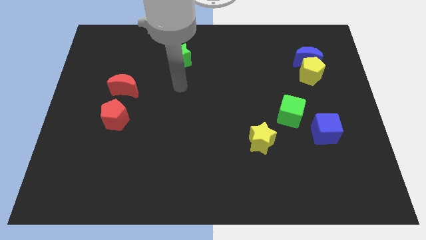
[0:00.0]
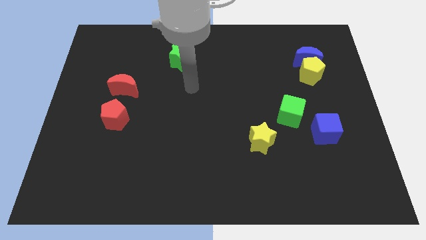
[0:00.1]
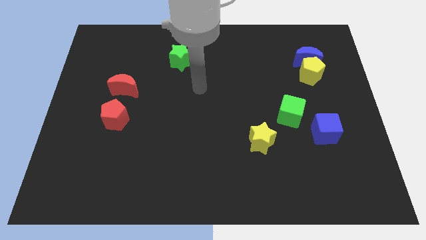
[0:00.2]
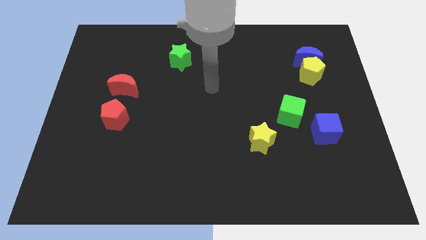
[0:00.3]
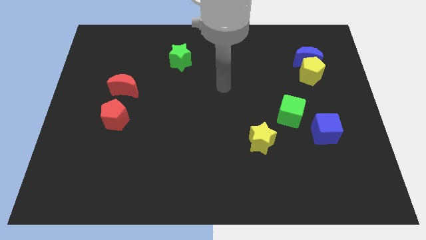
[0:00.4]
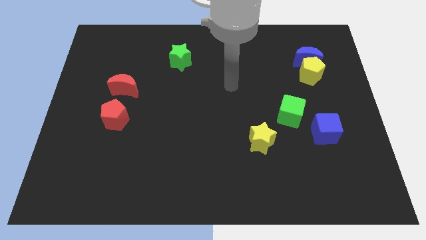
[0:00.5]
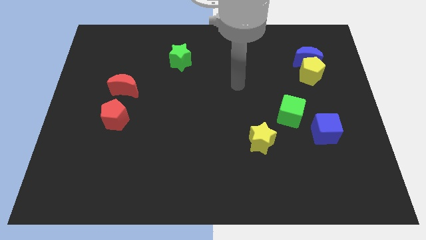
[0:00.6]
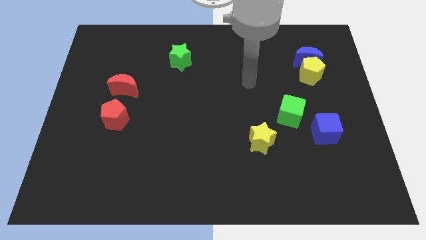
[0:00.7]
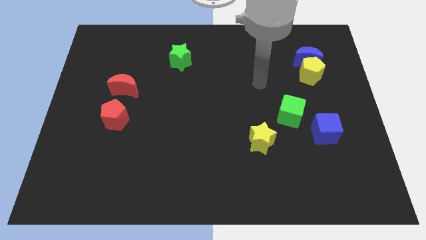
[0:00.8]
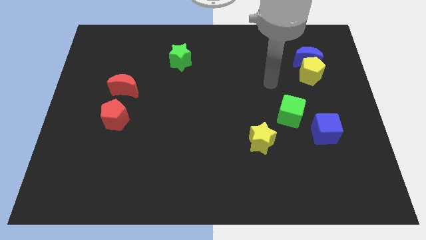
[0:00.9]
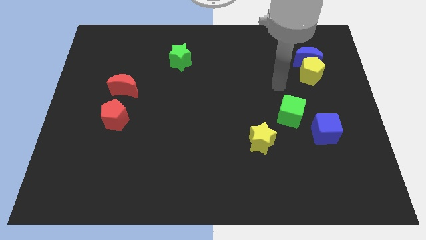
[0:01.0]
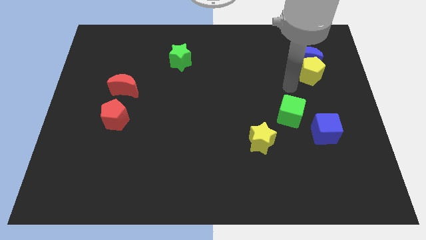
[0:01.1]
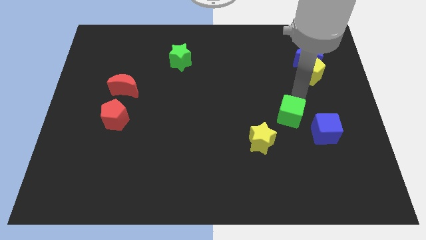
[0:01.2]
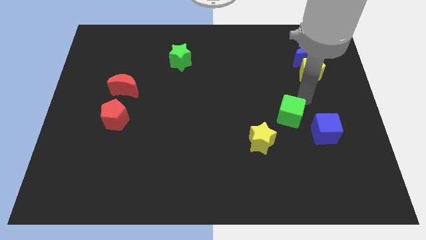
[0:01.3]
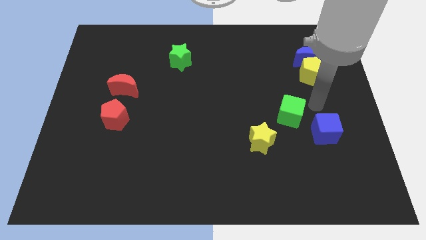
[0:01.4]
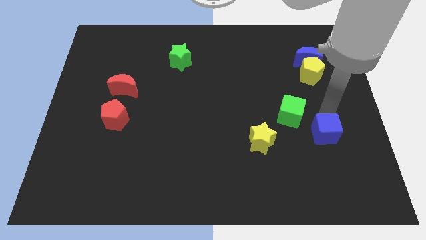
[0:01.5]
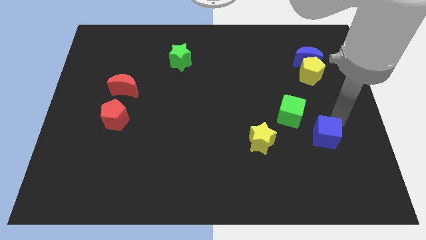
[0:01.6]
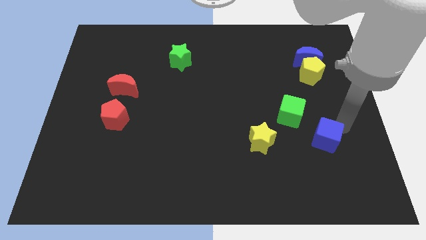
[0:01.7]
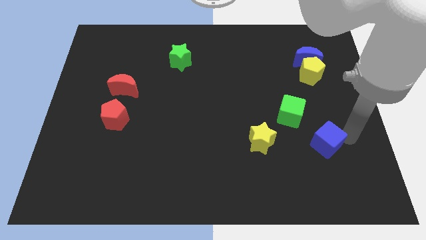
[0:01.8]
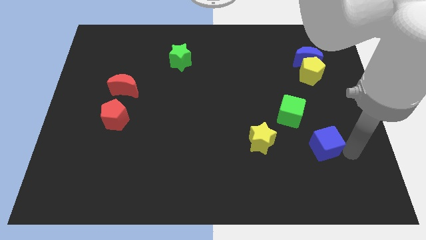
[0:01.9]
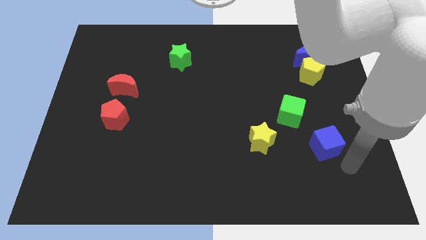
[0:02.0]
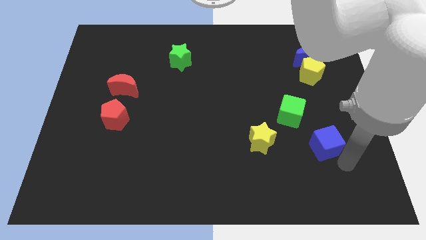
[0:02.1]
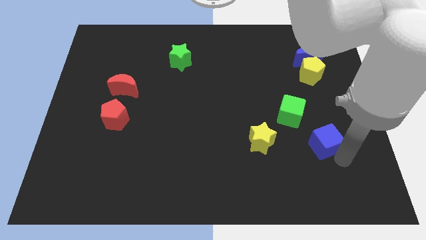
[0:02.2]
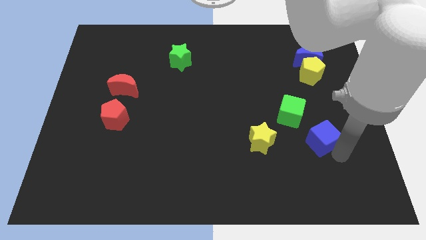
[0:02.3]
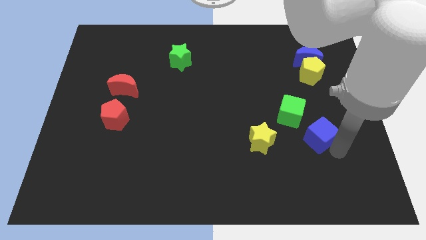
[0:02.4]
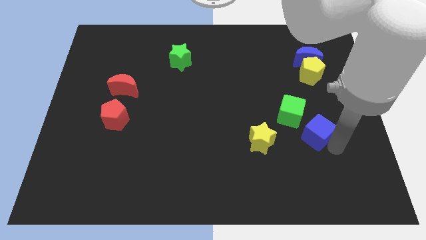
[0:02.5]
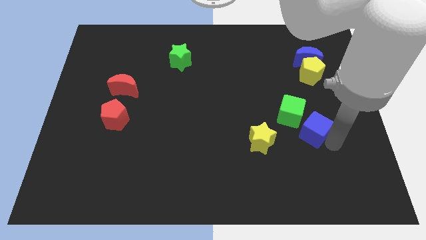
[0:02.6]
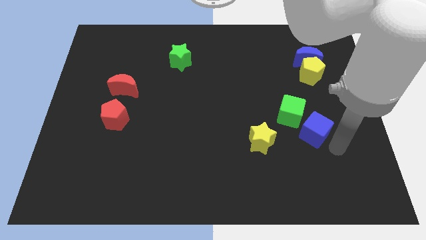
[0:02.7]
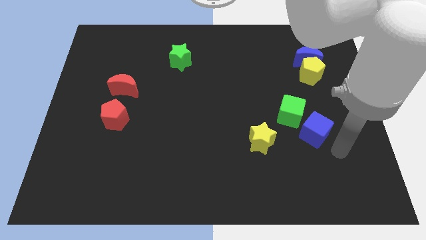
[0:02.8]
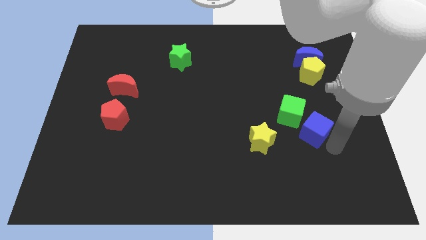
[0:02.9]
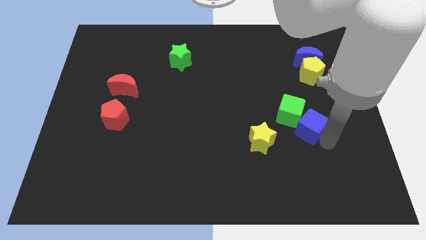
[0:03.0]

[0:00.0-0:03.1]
push the blue cube to the green cube

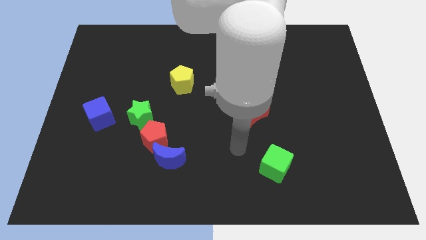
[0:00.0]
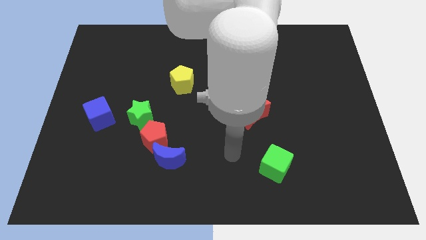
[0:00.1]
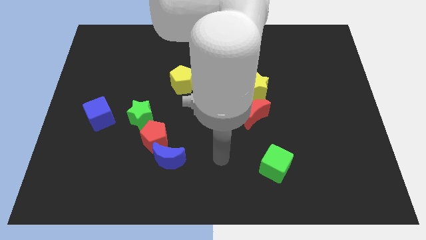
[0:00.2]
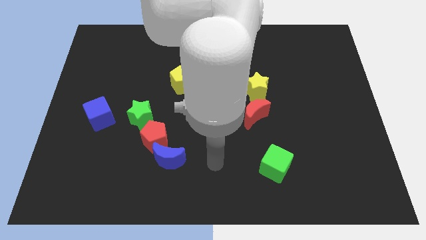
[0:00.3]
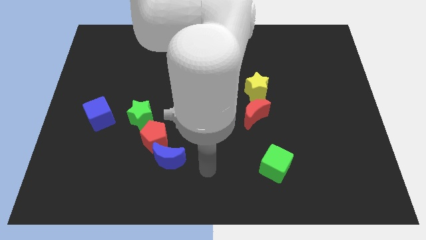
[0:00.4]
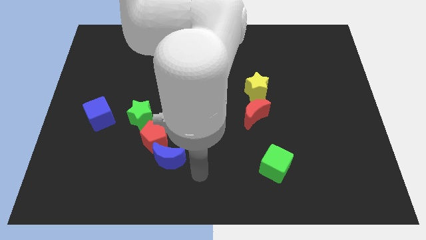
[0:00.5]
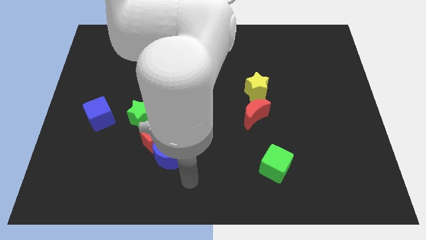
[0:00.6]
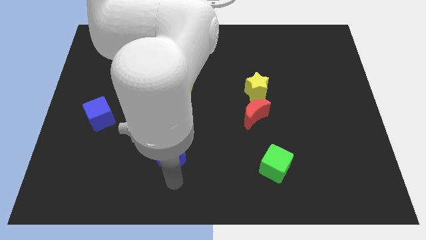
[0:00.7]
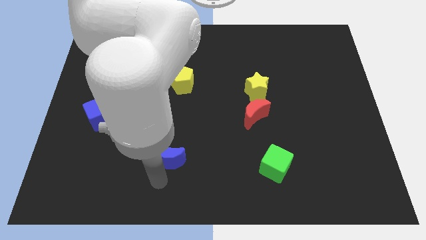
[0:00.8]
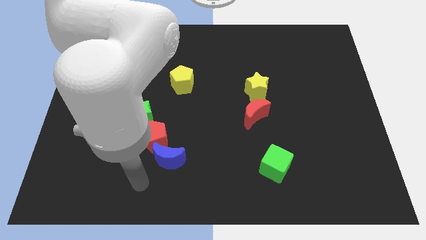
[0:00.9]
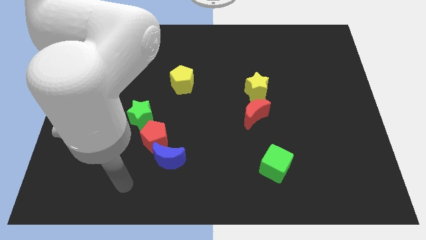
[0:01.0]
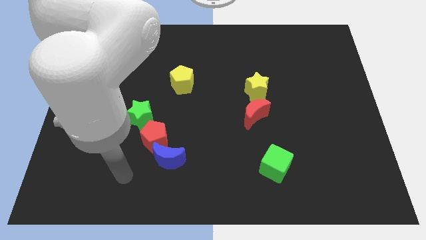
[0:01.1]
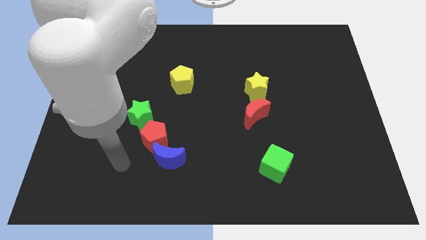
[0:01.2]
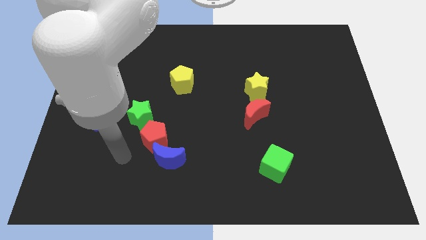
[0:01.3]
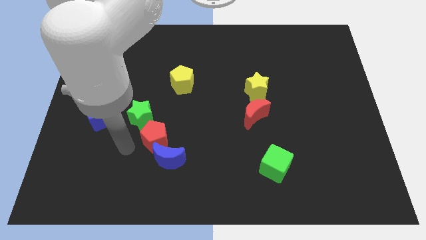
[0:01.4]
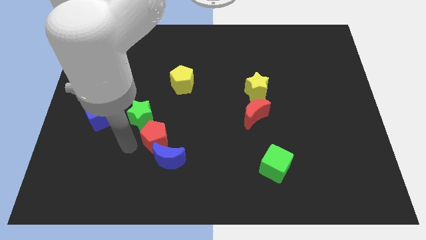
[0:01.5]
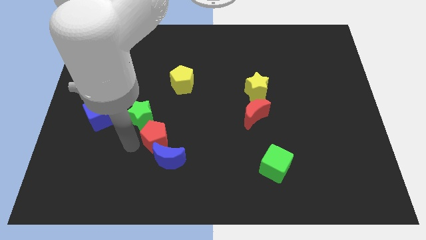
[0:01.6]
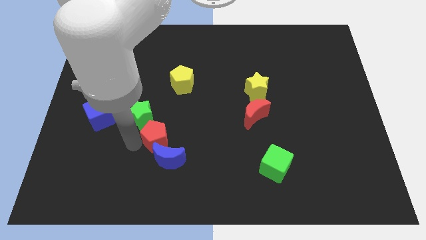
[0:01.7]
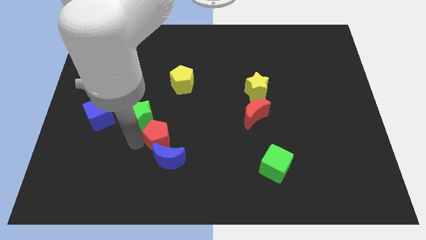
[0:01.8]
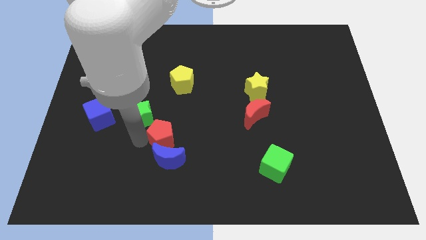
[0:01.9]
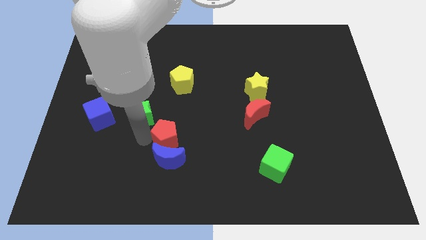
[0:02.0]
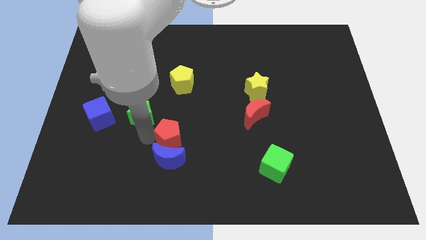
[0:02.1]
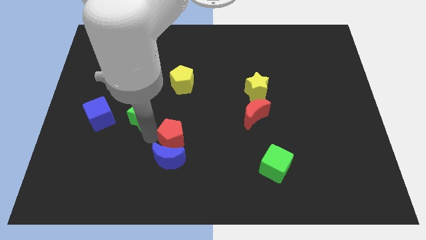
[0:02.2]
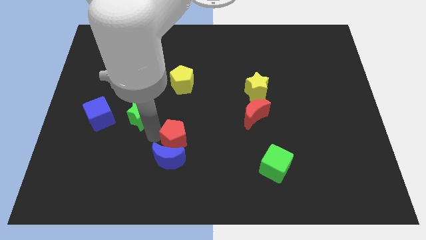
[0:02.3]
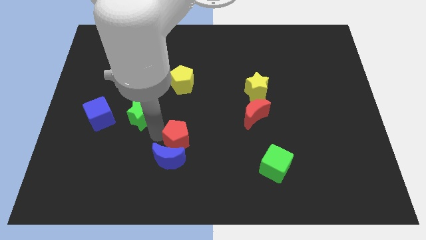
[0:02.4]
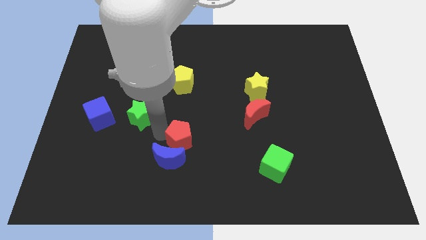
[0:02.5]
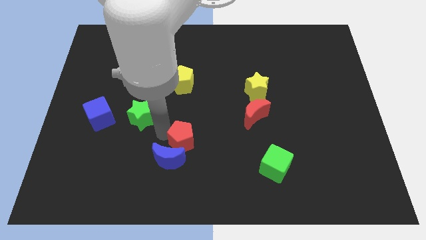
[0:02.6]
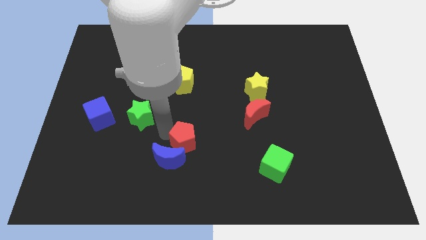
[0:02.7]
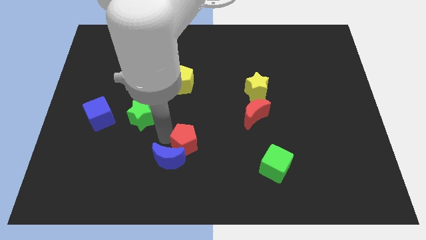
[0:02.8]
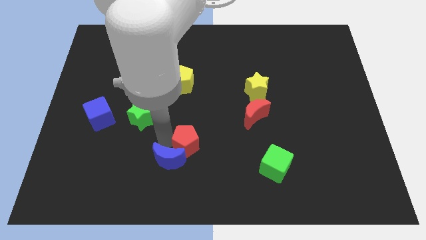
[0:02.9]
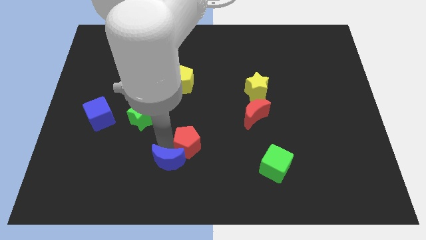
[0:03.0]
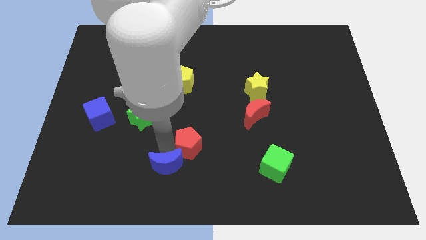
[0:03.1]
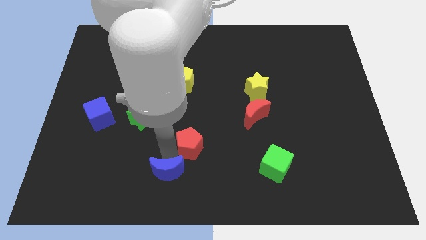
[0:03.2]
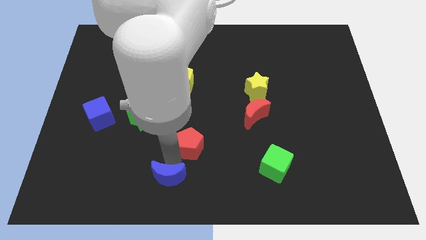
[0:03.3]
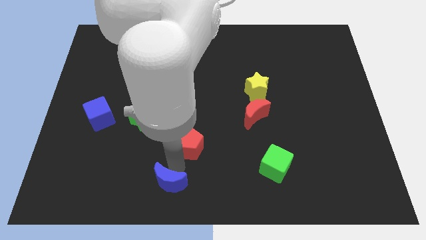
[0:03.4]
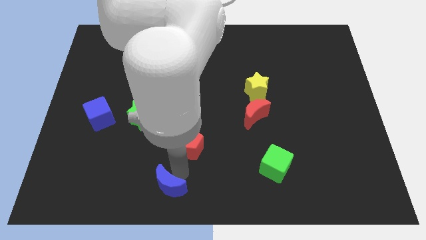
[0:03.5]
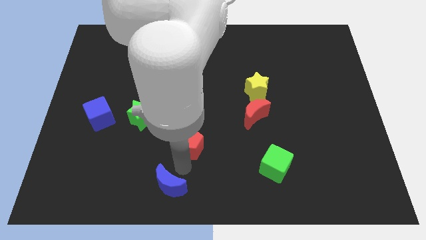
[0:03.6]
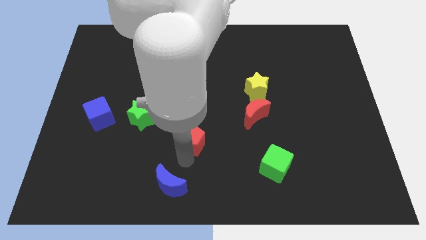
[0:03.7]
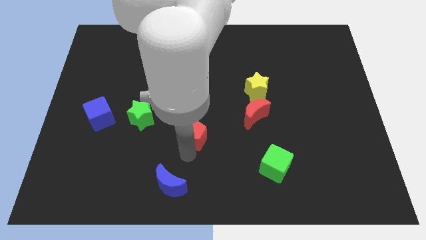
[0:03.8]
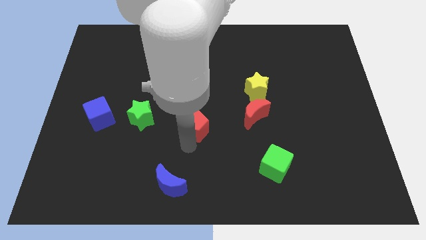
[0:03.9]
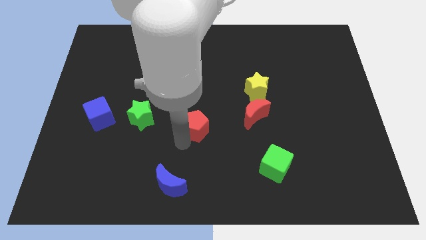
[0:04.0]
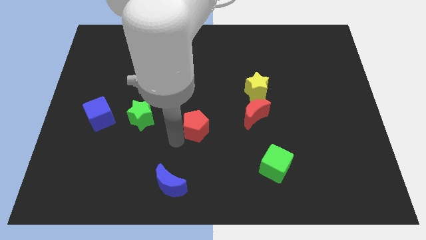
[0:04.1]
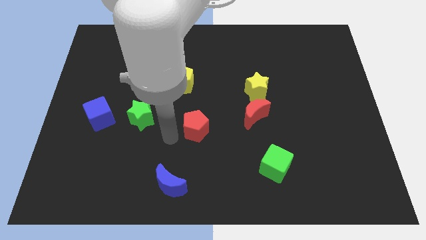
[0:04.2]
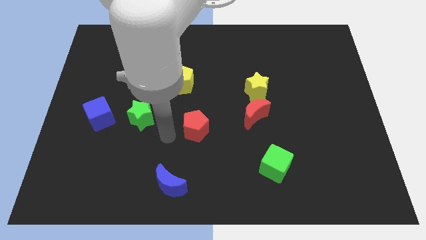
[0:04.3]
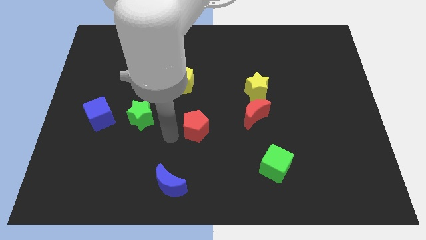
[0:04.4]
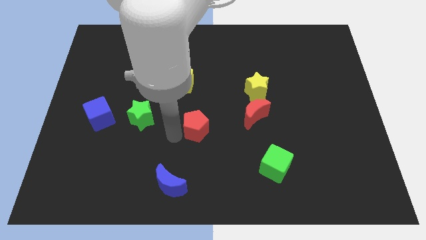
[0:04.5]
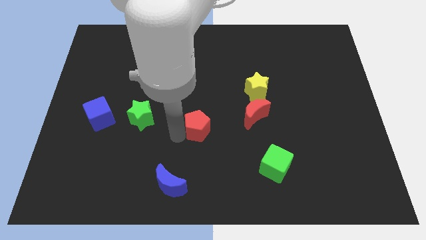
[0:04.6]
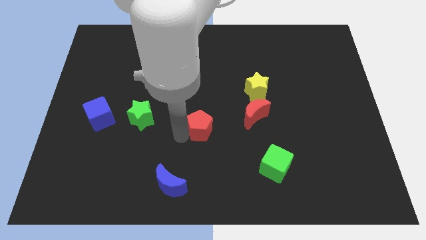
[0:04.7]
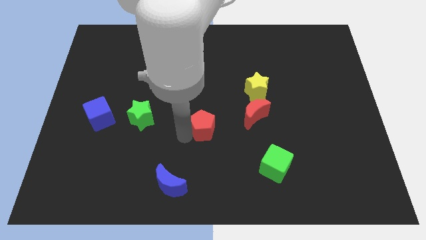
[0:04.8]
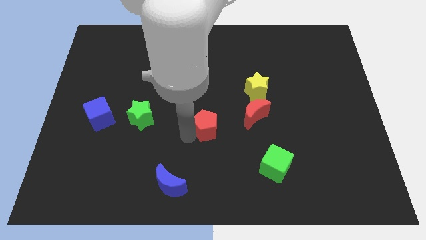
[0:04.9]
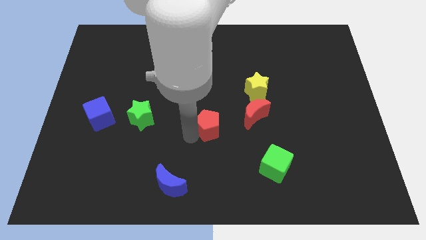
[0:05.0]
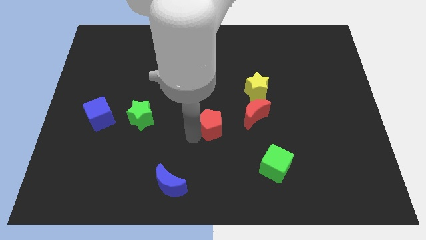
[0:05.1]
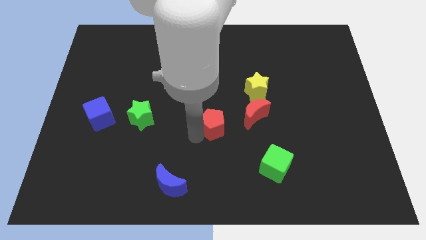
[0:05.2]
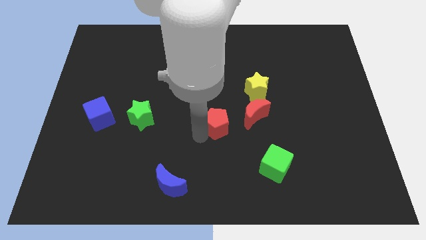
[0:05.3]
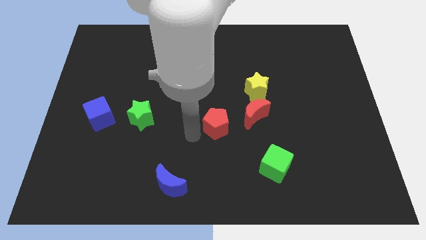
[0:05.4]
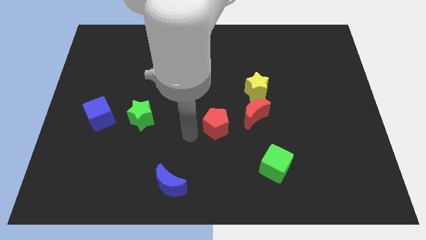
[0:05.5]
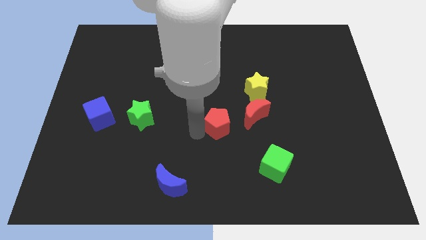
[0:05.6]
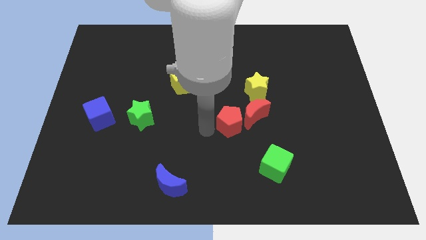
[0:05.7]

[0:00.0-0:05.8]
move the red pentagon to the red moon
